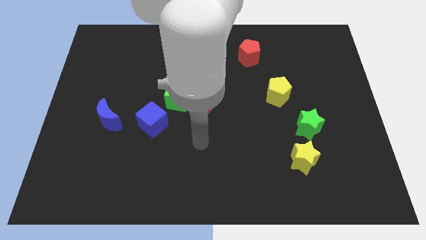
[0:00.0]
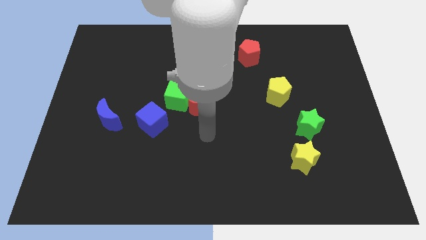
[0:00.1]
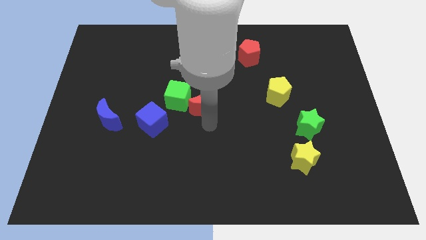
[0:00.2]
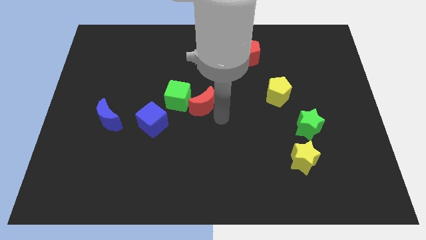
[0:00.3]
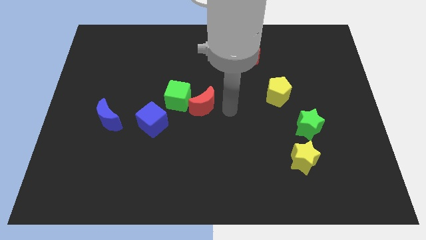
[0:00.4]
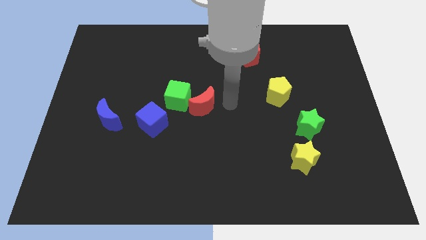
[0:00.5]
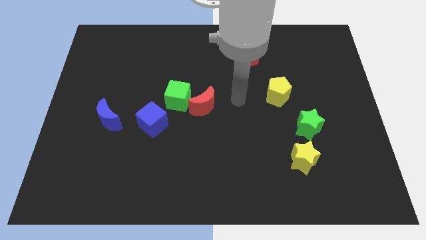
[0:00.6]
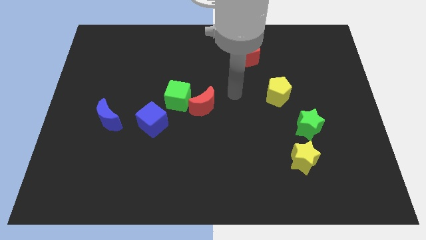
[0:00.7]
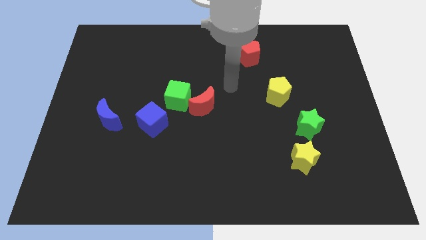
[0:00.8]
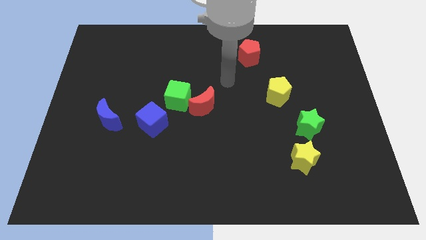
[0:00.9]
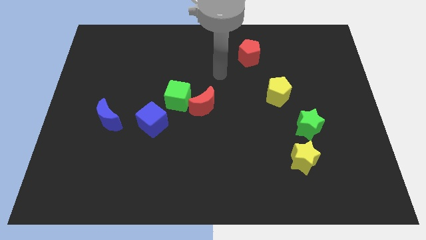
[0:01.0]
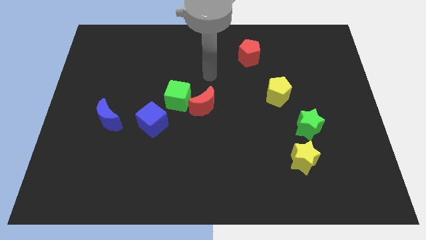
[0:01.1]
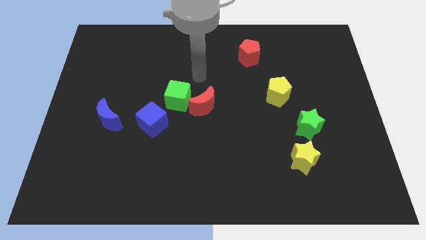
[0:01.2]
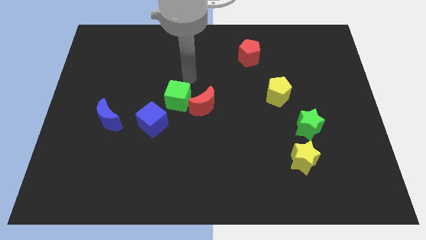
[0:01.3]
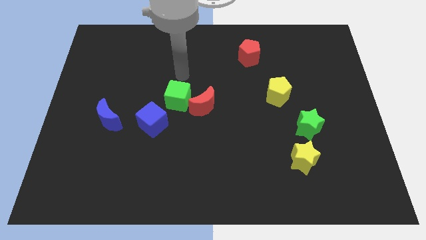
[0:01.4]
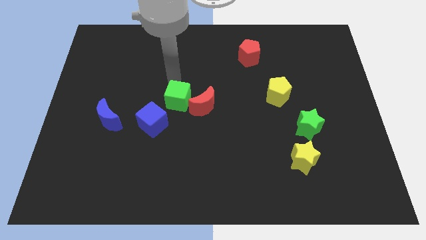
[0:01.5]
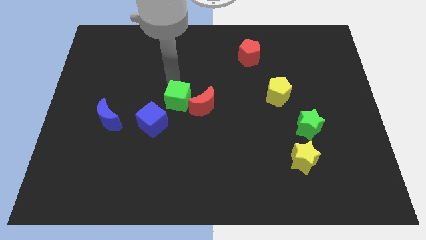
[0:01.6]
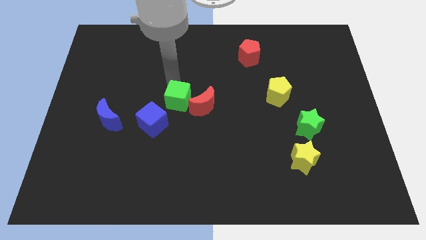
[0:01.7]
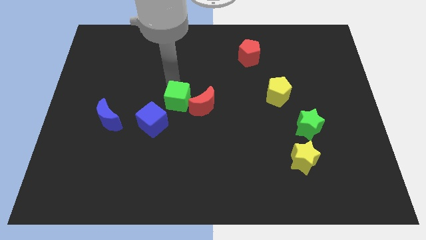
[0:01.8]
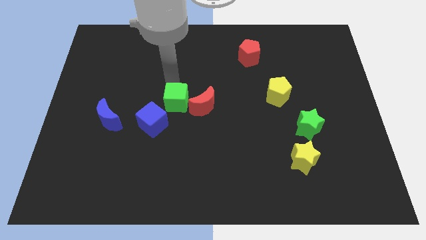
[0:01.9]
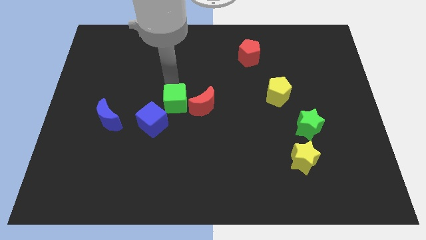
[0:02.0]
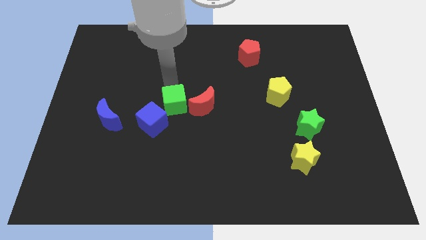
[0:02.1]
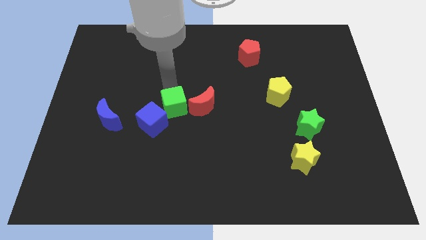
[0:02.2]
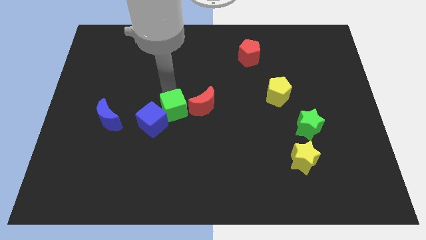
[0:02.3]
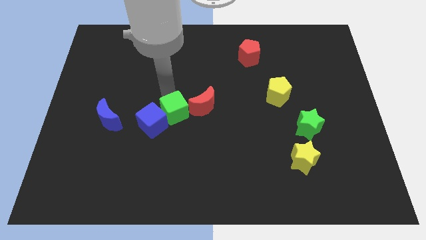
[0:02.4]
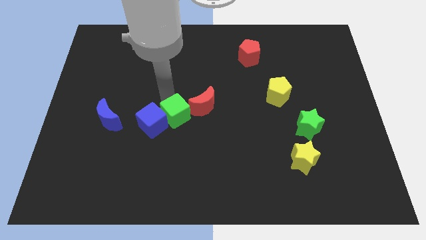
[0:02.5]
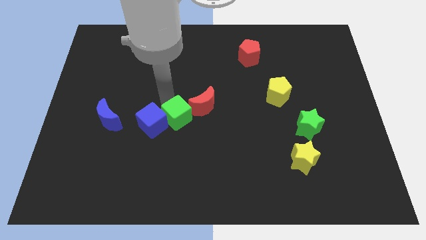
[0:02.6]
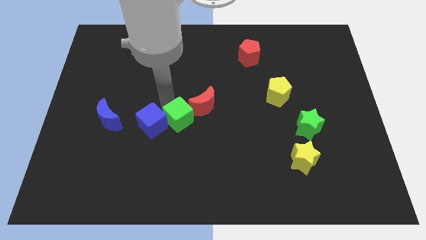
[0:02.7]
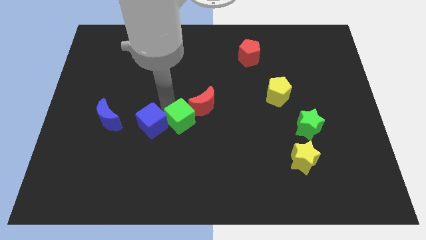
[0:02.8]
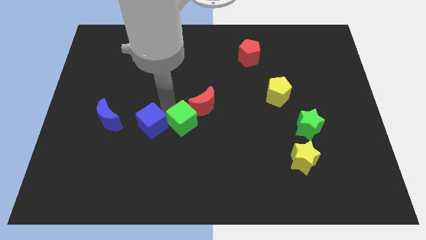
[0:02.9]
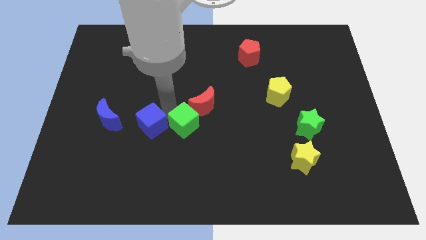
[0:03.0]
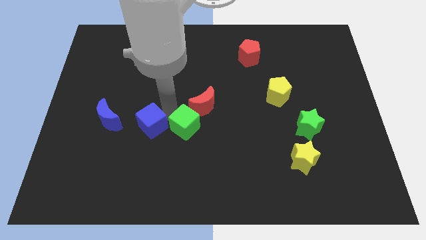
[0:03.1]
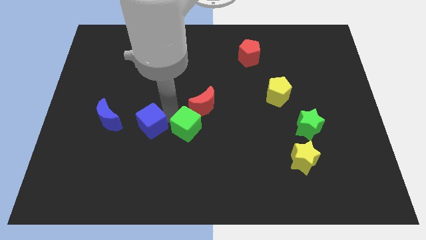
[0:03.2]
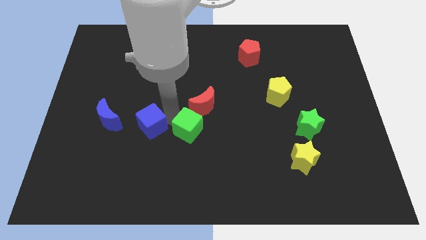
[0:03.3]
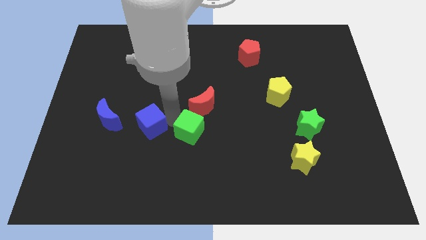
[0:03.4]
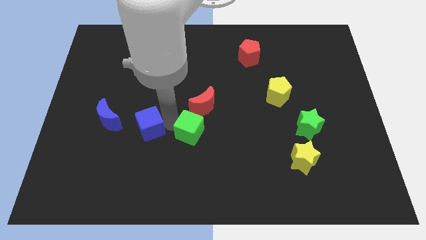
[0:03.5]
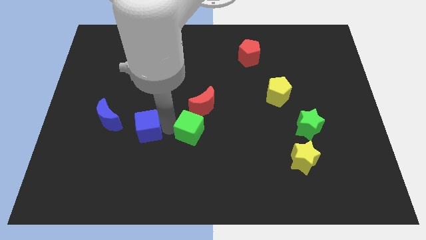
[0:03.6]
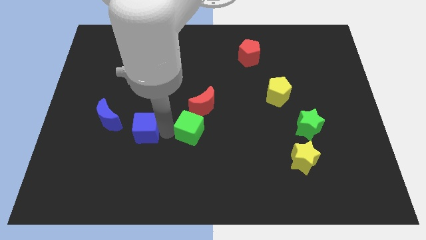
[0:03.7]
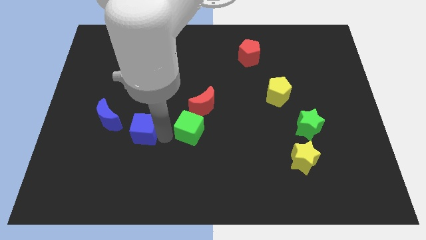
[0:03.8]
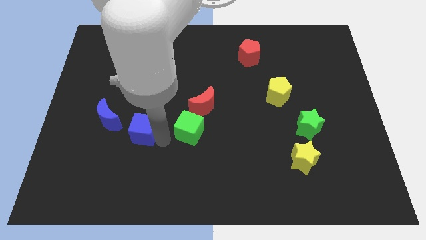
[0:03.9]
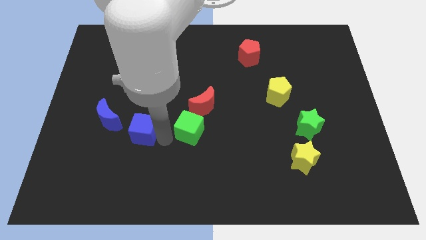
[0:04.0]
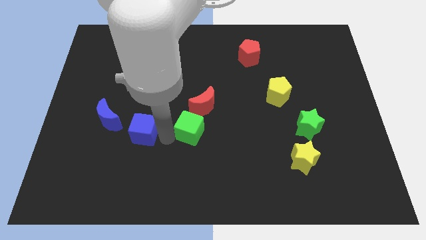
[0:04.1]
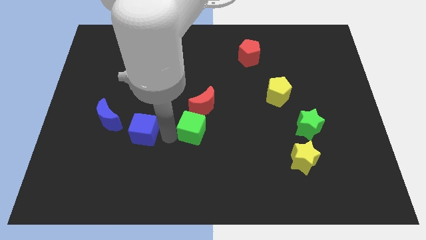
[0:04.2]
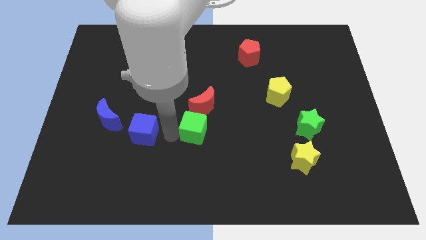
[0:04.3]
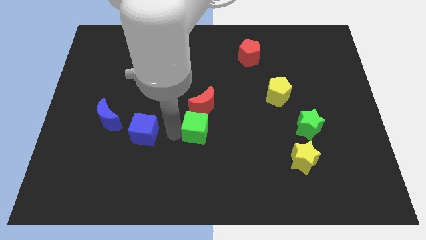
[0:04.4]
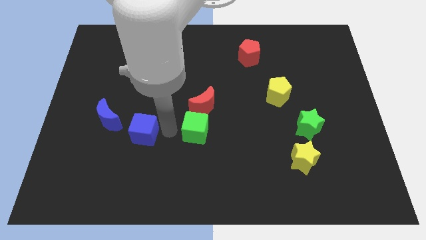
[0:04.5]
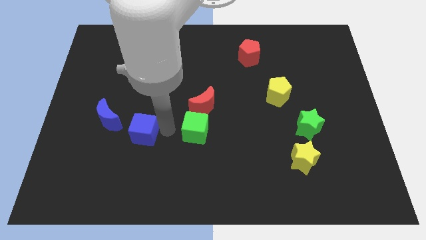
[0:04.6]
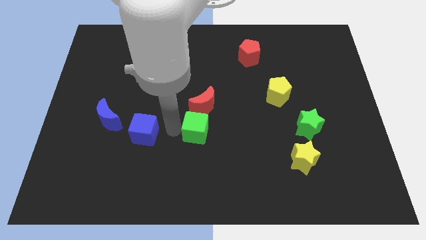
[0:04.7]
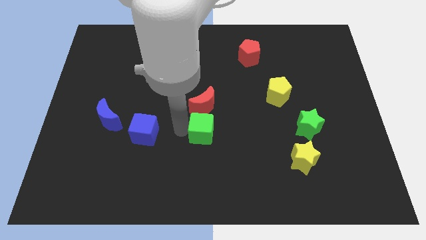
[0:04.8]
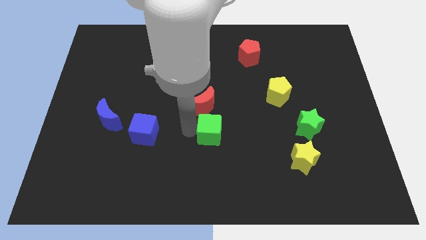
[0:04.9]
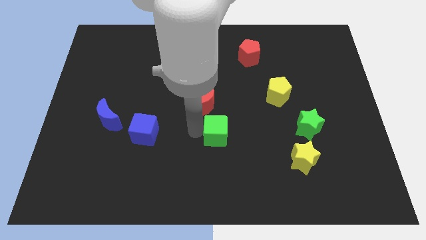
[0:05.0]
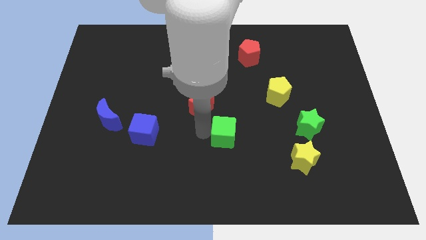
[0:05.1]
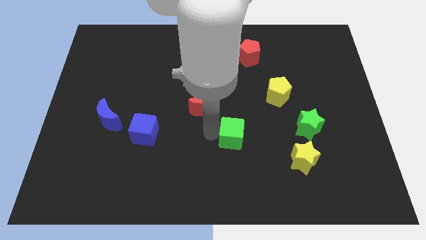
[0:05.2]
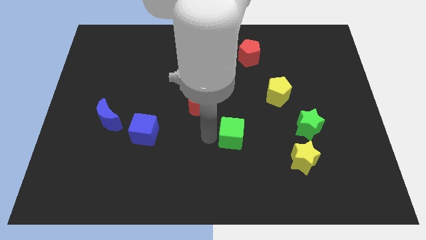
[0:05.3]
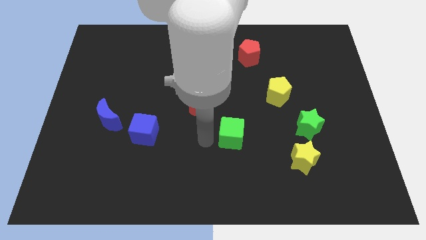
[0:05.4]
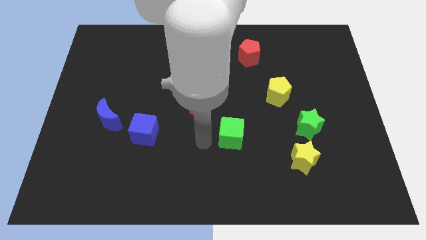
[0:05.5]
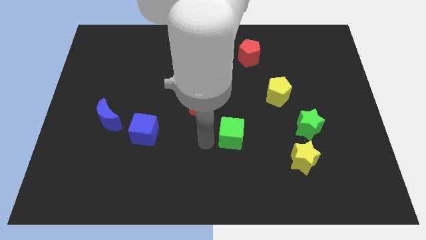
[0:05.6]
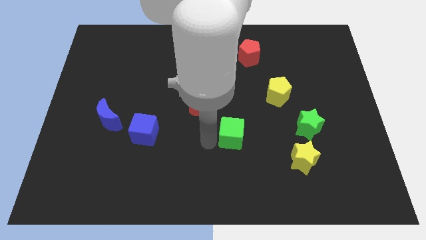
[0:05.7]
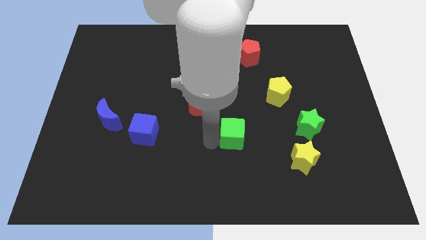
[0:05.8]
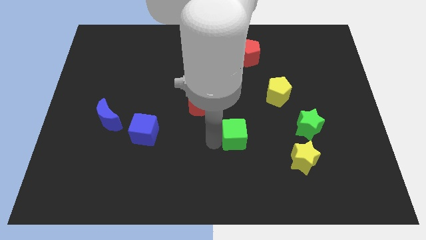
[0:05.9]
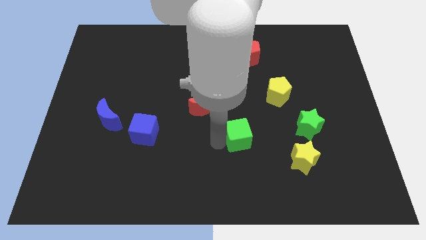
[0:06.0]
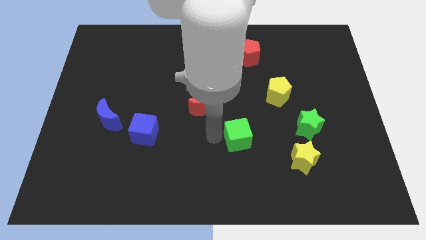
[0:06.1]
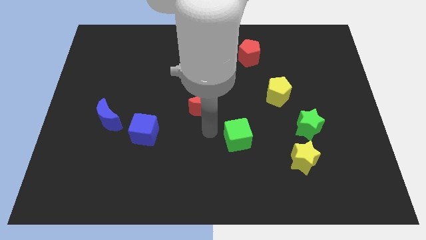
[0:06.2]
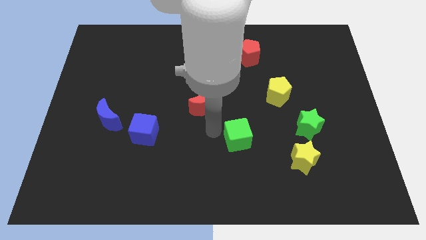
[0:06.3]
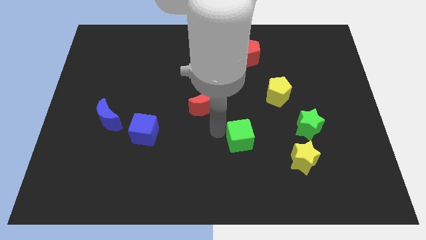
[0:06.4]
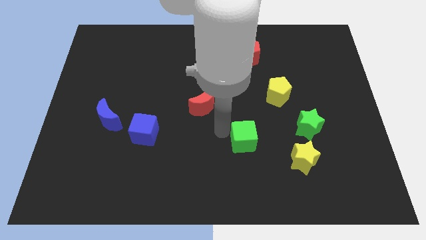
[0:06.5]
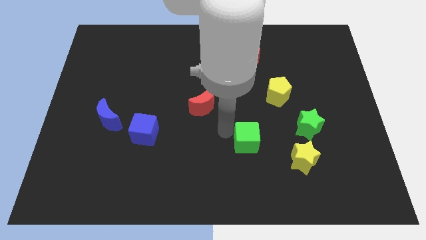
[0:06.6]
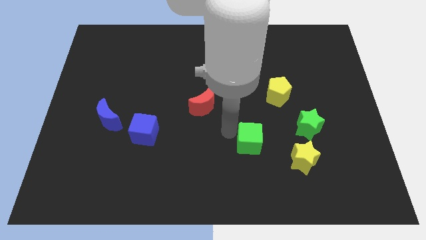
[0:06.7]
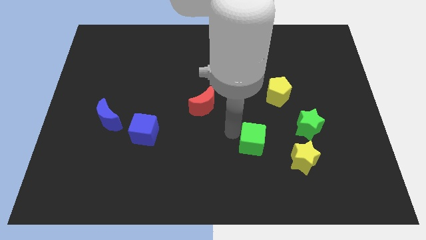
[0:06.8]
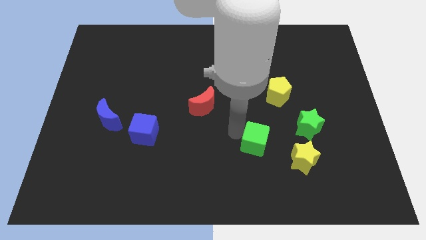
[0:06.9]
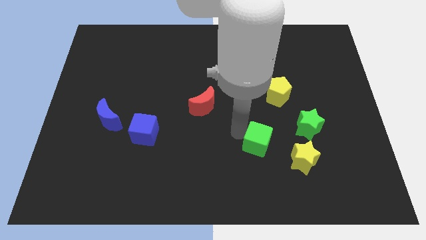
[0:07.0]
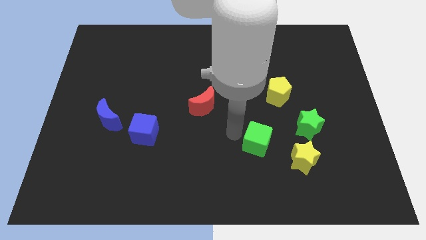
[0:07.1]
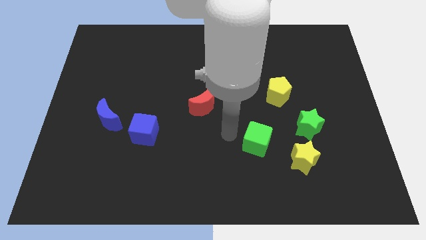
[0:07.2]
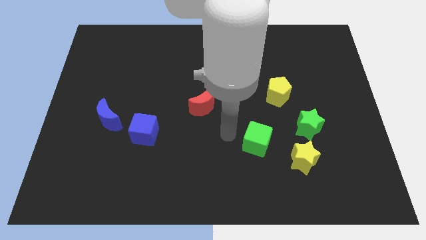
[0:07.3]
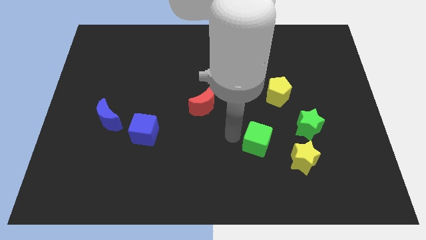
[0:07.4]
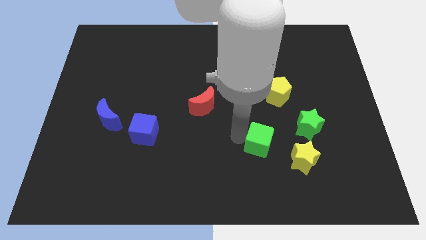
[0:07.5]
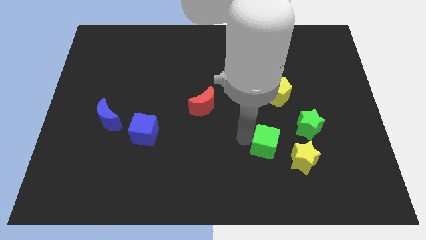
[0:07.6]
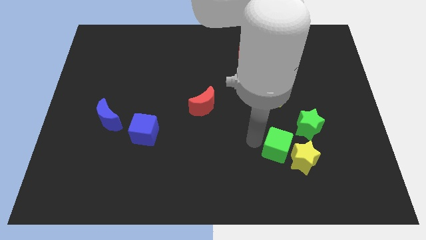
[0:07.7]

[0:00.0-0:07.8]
move the green cube close to the yellow star
